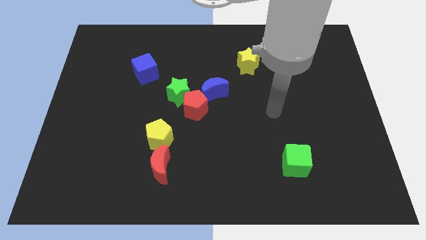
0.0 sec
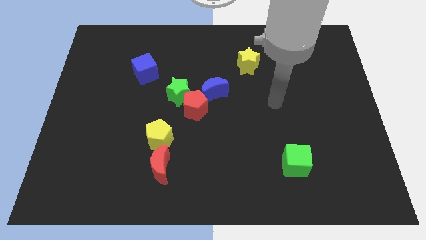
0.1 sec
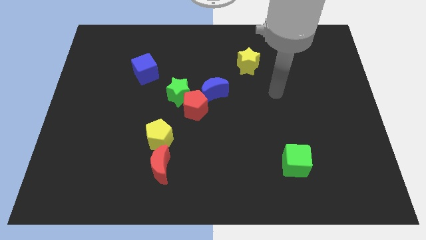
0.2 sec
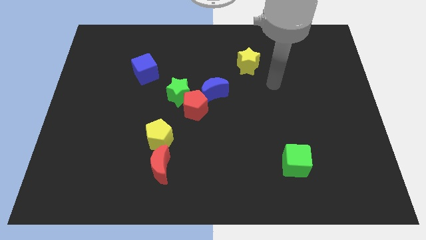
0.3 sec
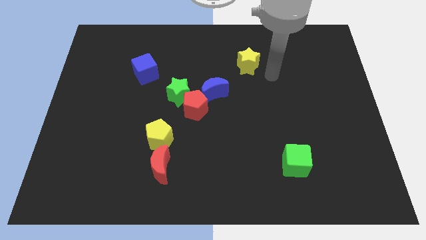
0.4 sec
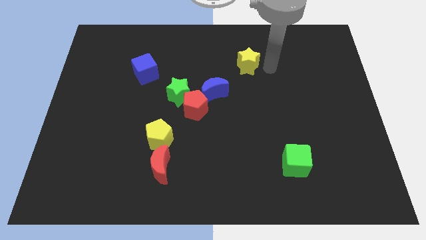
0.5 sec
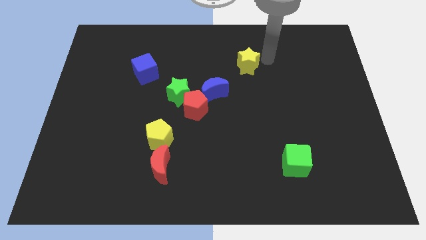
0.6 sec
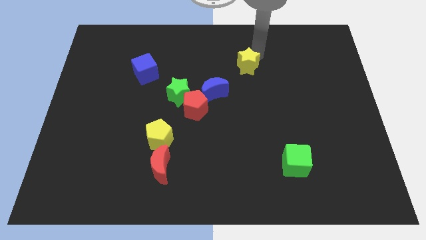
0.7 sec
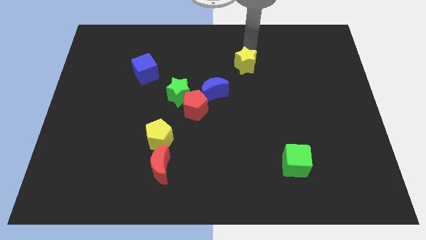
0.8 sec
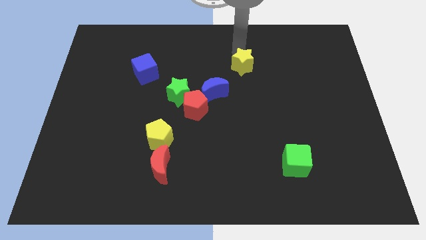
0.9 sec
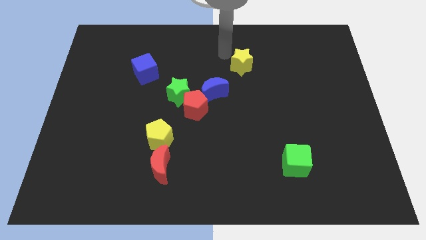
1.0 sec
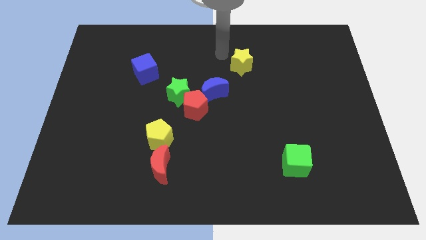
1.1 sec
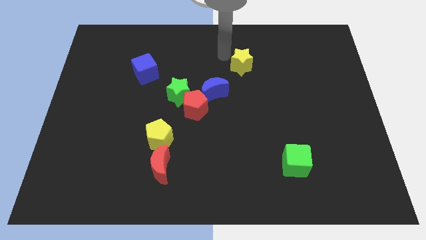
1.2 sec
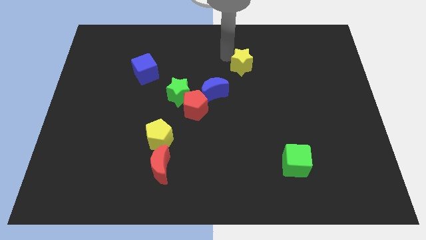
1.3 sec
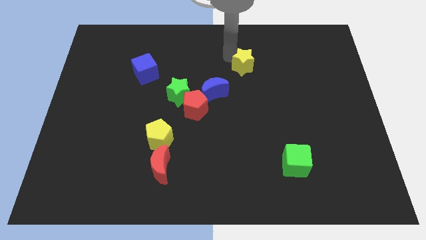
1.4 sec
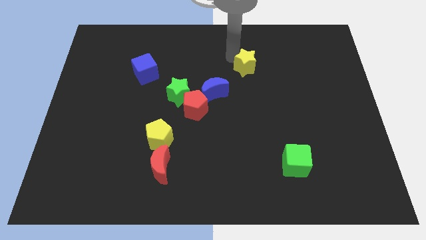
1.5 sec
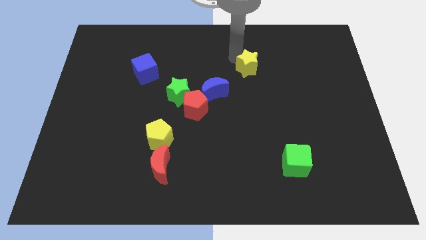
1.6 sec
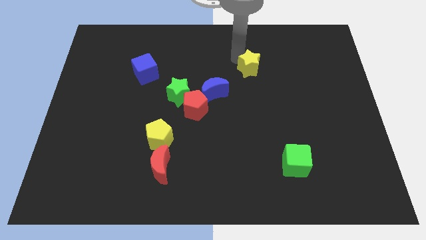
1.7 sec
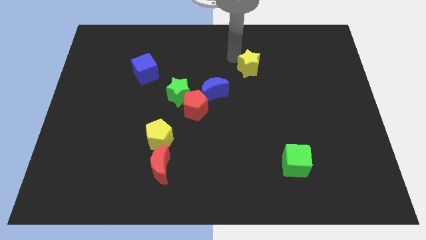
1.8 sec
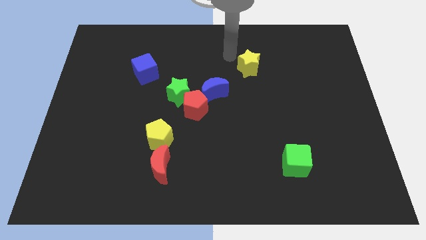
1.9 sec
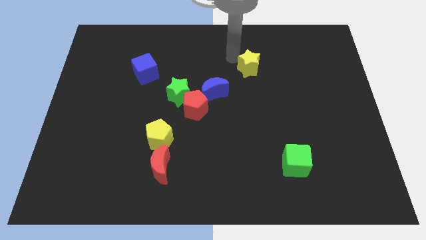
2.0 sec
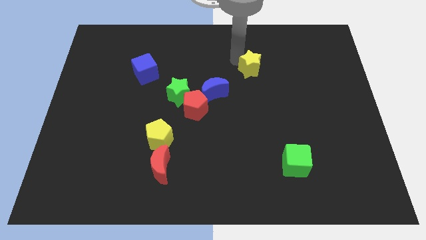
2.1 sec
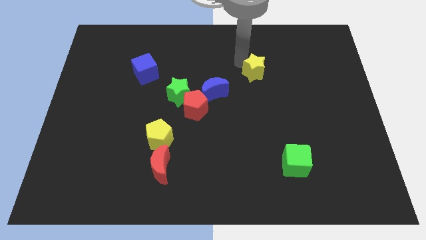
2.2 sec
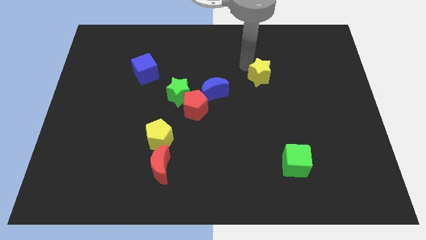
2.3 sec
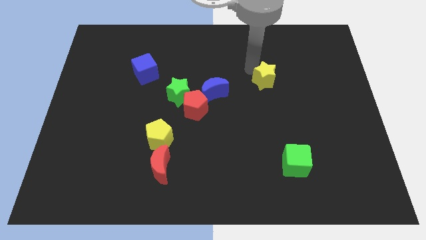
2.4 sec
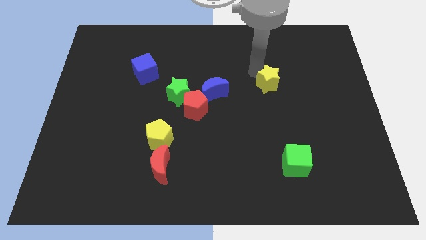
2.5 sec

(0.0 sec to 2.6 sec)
push the yellow star a little bit downwards and right

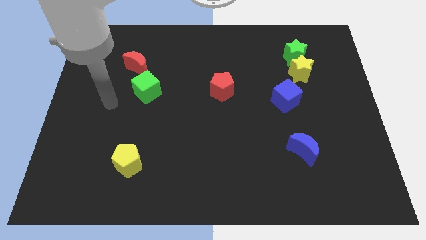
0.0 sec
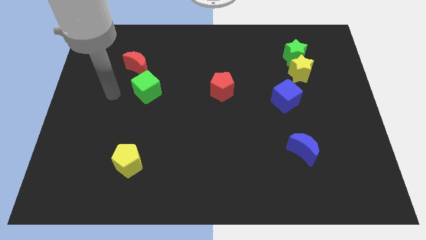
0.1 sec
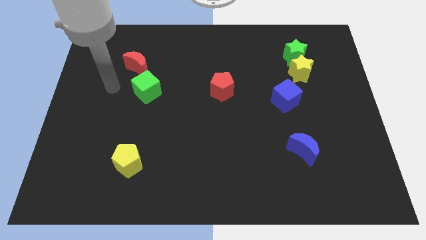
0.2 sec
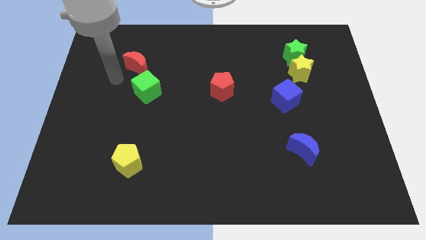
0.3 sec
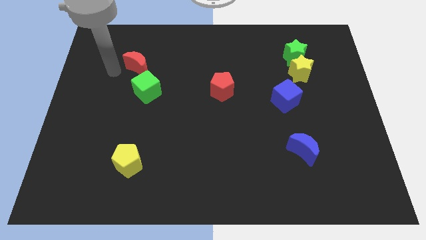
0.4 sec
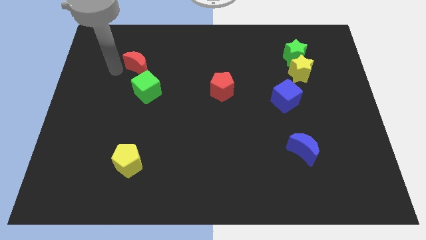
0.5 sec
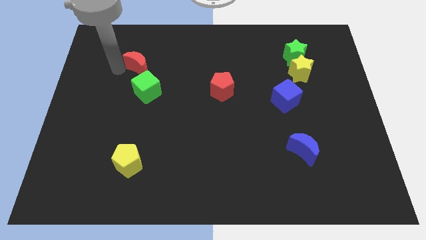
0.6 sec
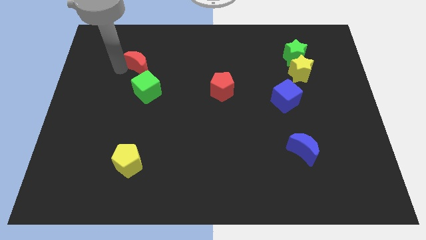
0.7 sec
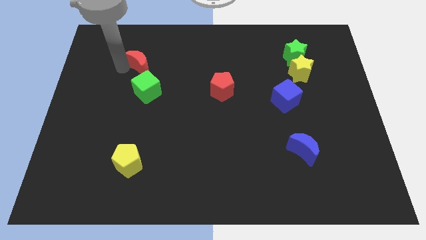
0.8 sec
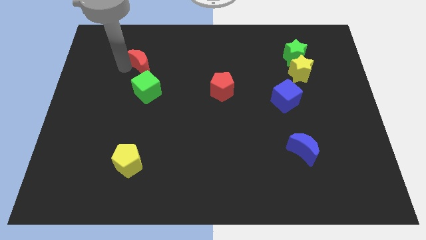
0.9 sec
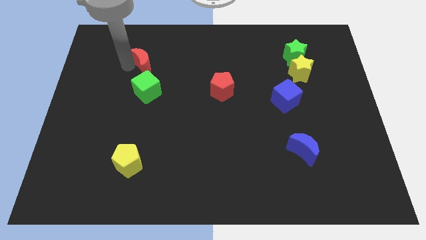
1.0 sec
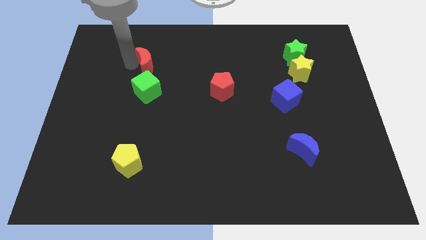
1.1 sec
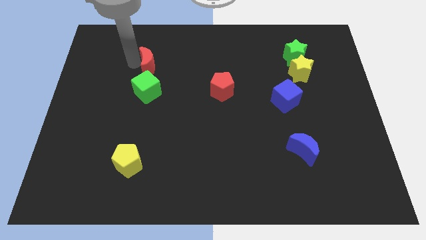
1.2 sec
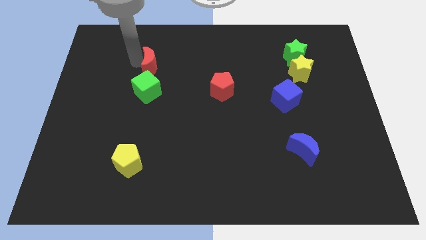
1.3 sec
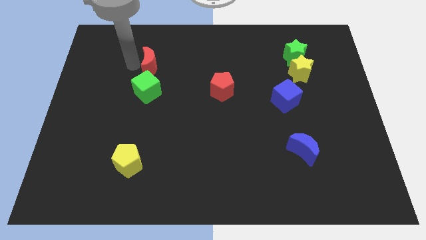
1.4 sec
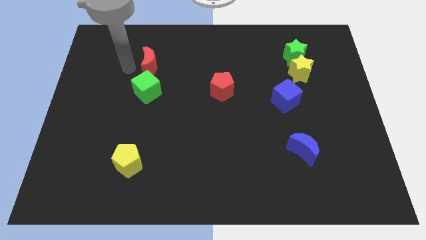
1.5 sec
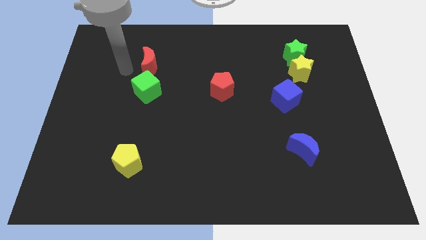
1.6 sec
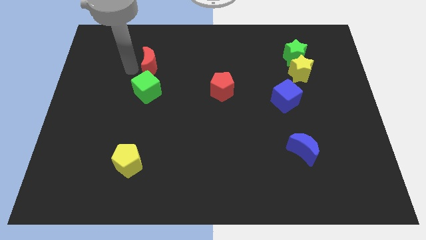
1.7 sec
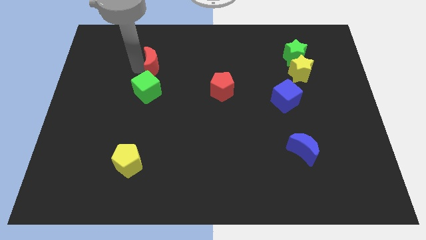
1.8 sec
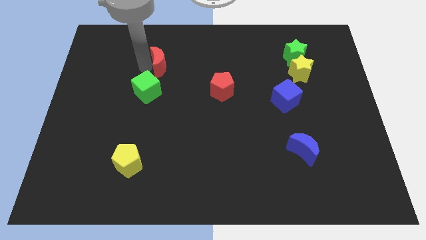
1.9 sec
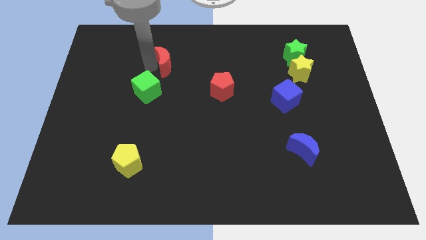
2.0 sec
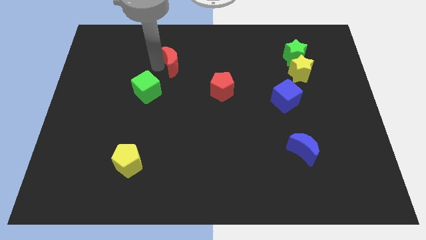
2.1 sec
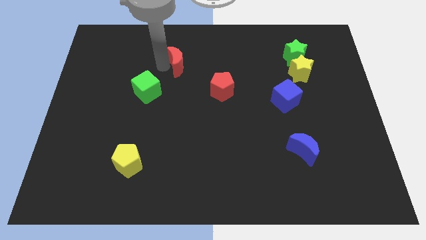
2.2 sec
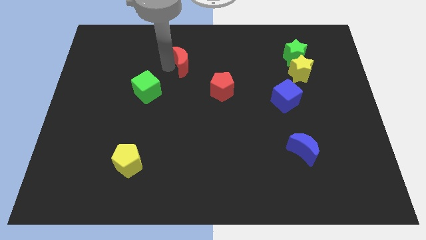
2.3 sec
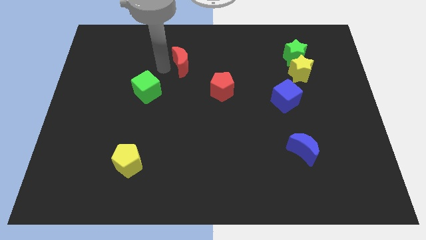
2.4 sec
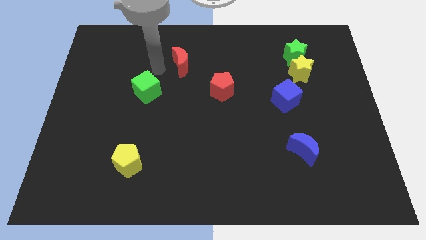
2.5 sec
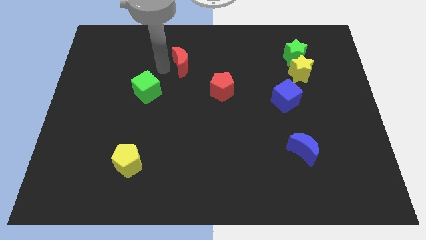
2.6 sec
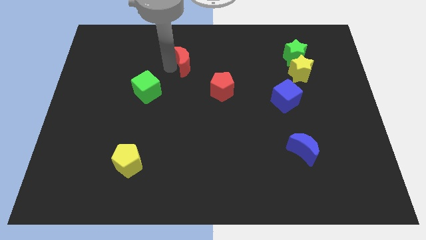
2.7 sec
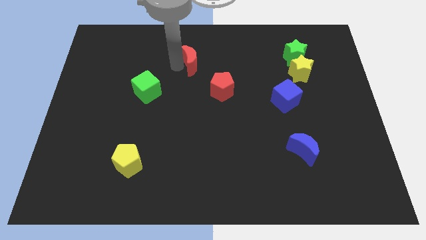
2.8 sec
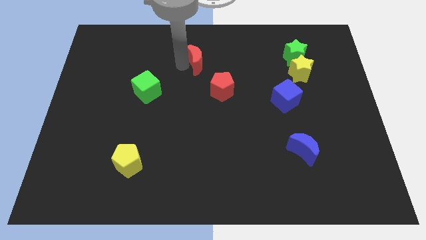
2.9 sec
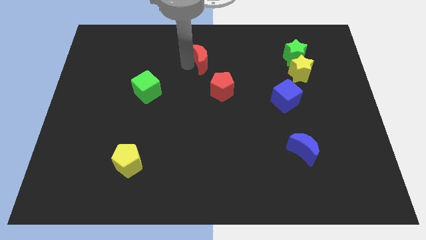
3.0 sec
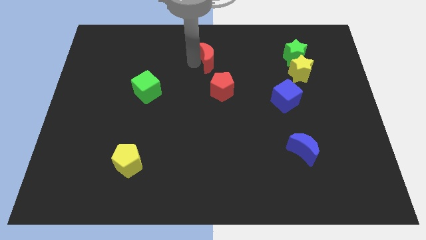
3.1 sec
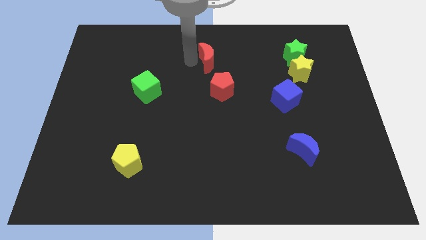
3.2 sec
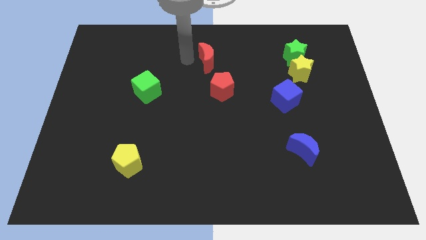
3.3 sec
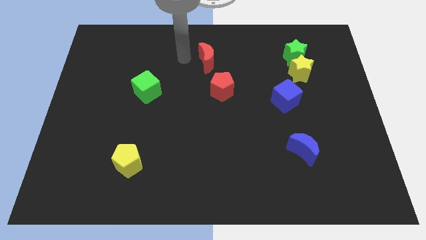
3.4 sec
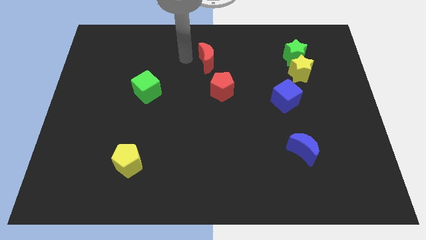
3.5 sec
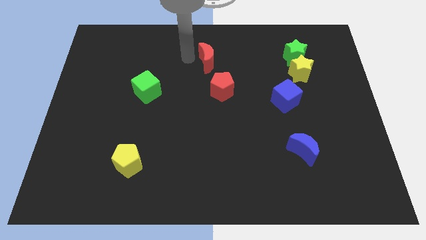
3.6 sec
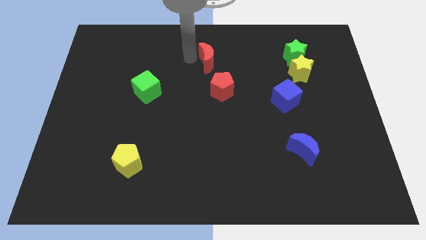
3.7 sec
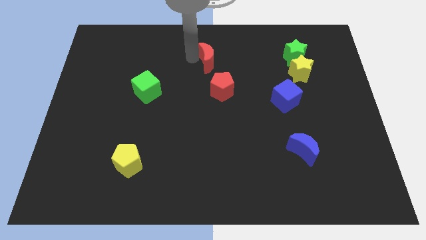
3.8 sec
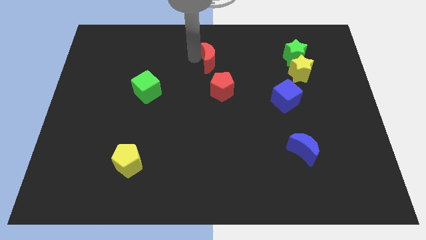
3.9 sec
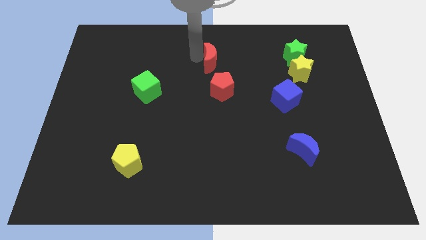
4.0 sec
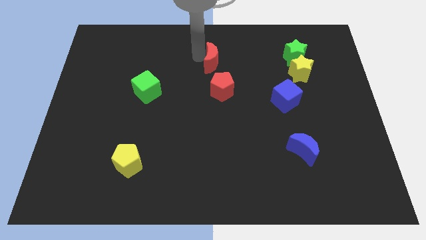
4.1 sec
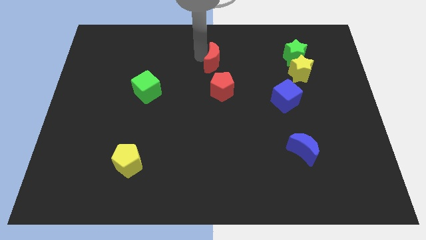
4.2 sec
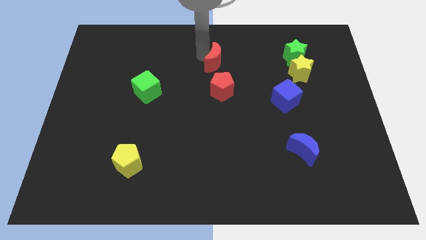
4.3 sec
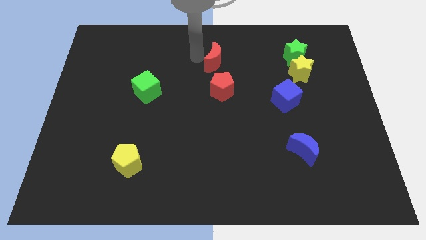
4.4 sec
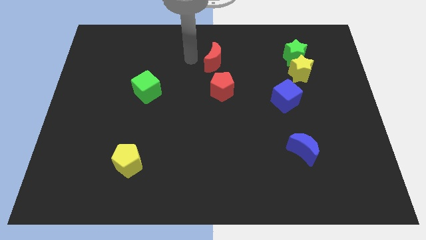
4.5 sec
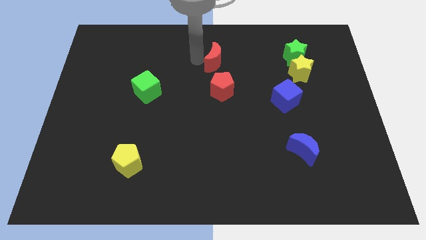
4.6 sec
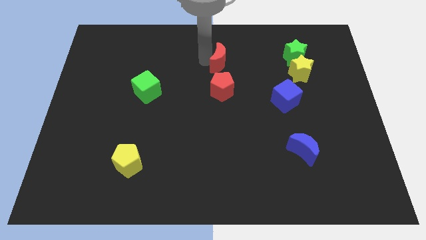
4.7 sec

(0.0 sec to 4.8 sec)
move the red moon to the right

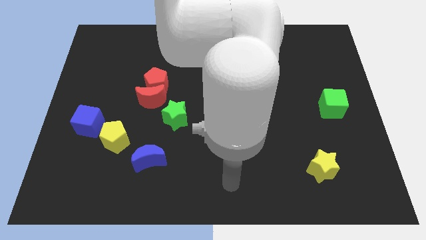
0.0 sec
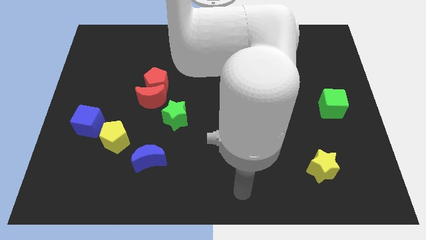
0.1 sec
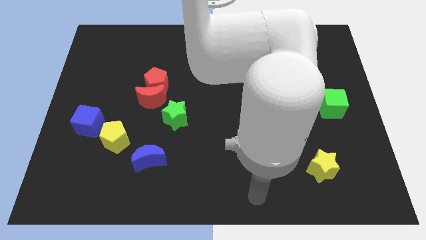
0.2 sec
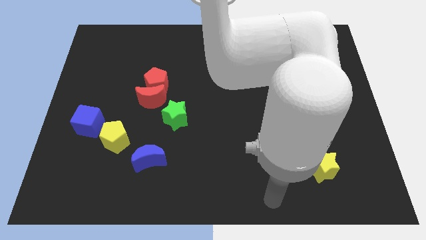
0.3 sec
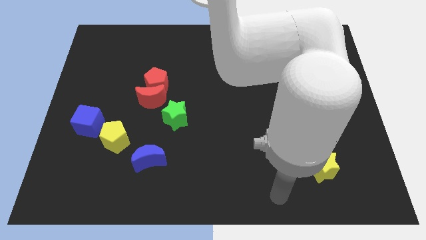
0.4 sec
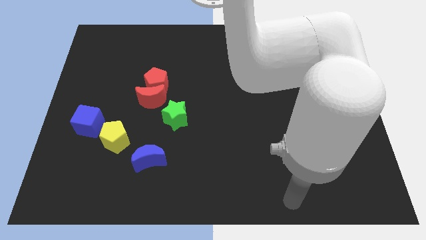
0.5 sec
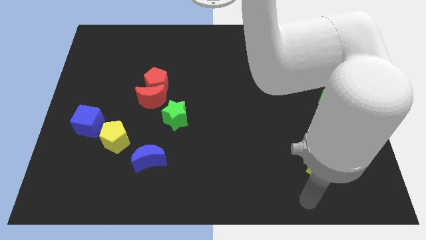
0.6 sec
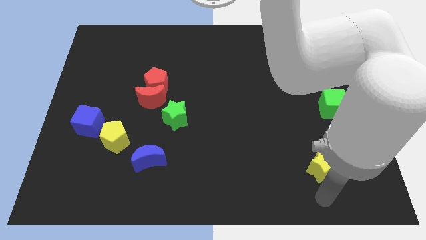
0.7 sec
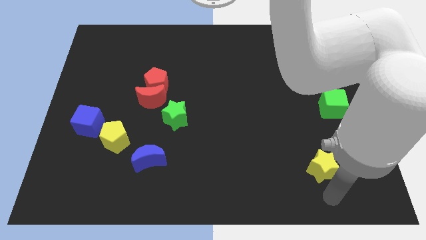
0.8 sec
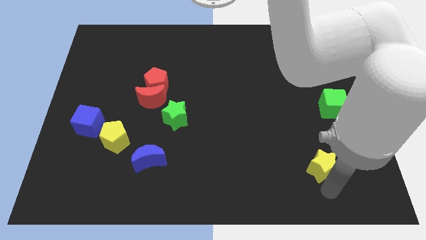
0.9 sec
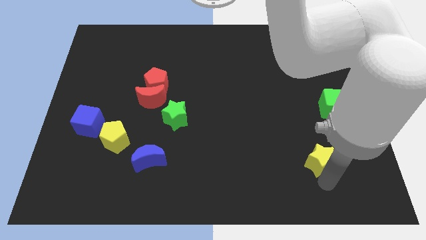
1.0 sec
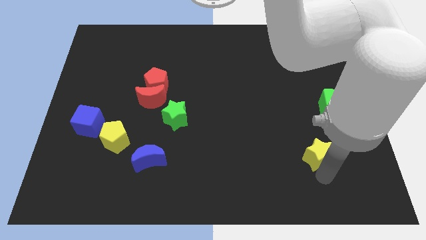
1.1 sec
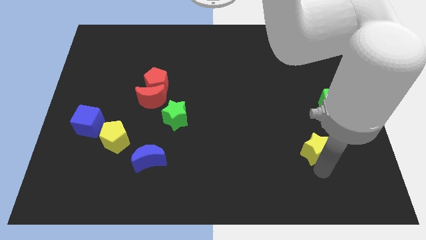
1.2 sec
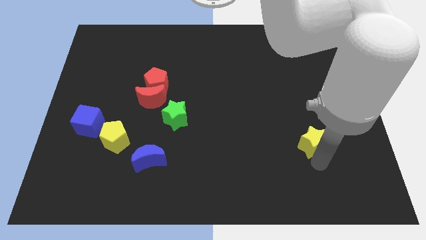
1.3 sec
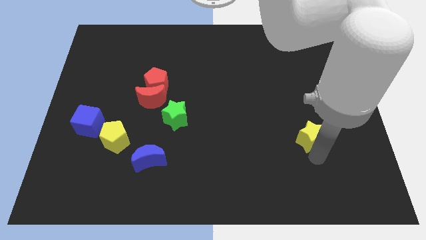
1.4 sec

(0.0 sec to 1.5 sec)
slightly move the yellow star up
